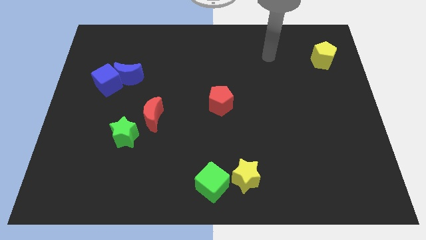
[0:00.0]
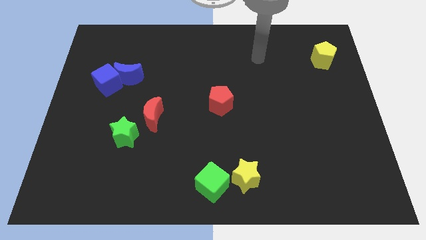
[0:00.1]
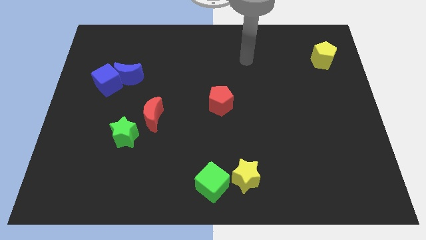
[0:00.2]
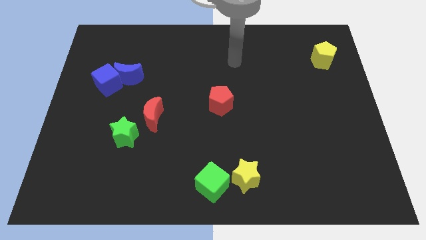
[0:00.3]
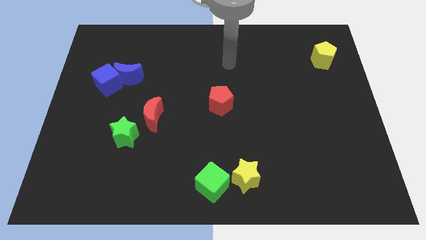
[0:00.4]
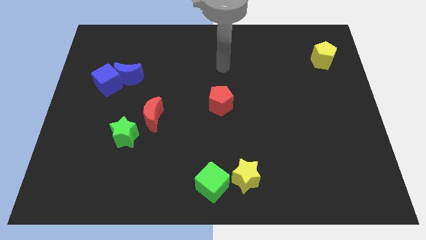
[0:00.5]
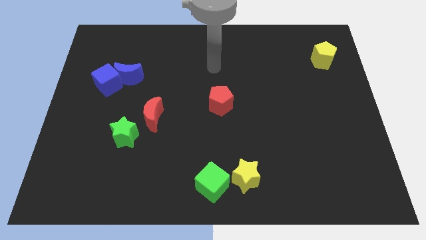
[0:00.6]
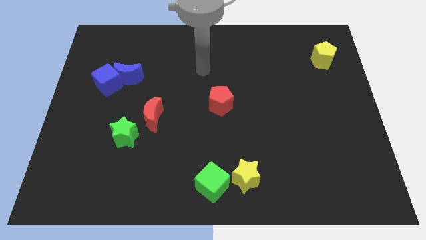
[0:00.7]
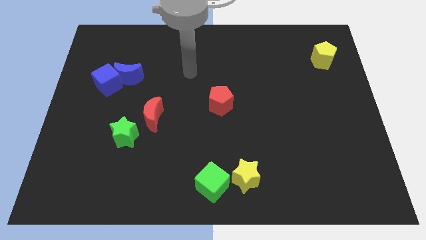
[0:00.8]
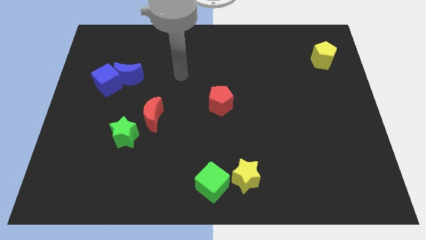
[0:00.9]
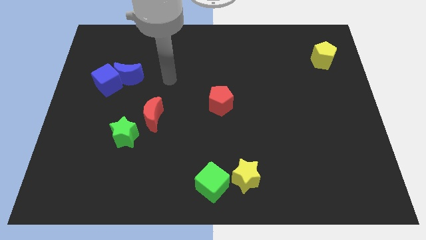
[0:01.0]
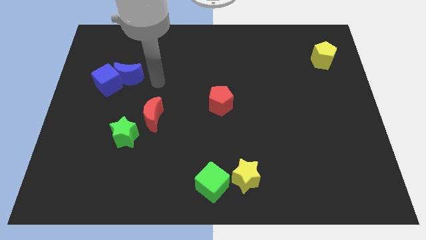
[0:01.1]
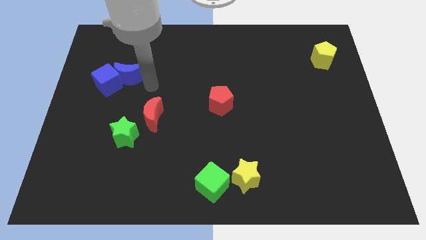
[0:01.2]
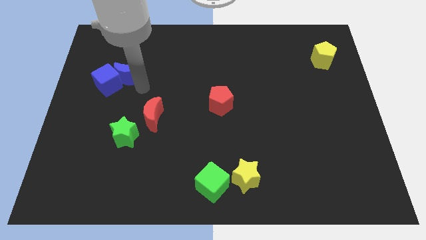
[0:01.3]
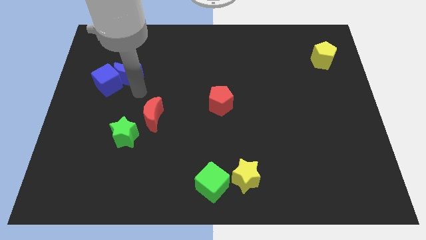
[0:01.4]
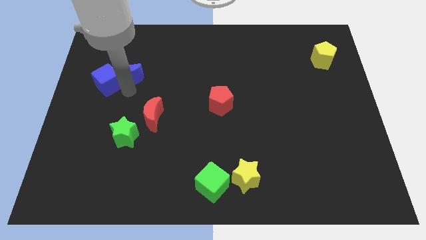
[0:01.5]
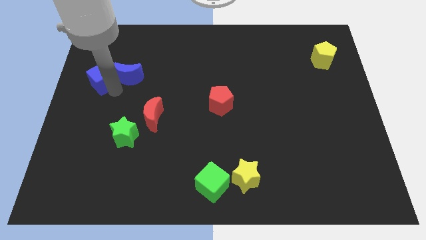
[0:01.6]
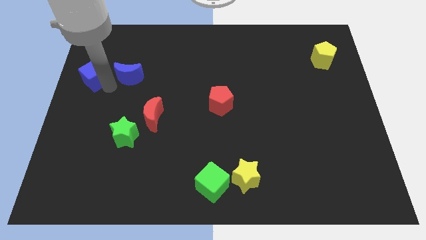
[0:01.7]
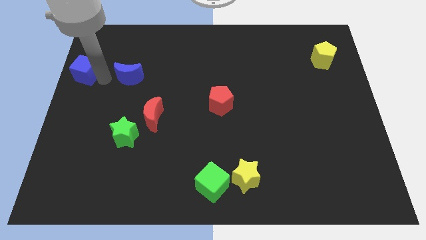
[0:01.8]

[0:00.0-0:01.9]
separate the blue moon from the blue cube

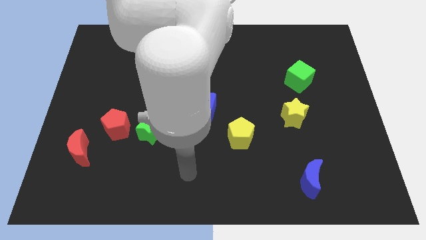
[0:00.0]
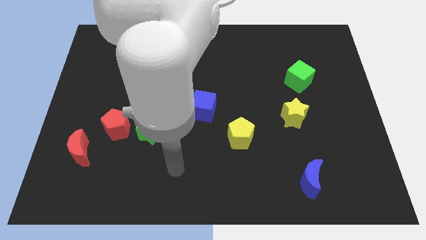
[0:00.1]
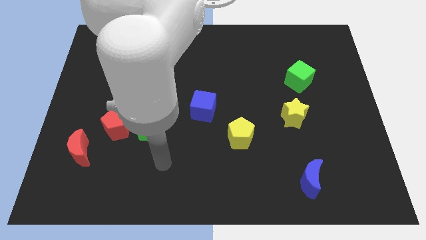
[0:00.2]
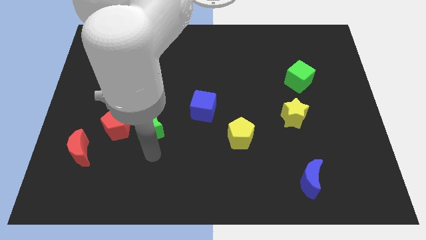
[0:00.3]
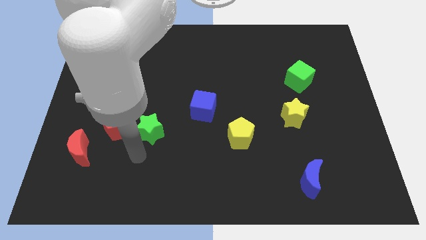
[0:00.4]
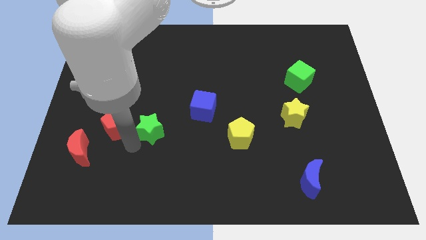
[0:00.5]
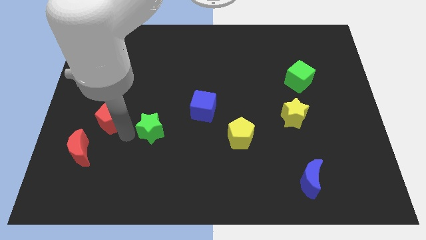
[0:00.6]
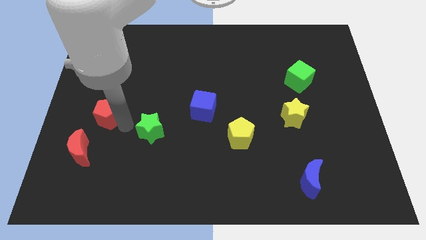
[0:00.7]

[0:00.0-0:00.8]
separate the green star from the red pentagon

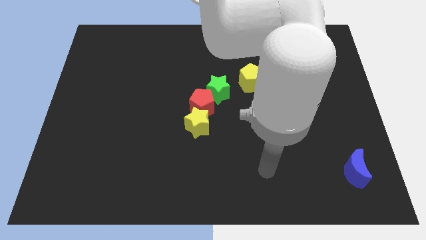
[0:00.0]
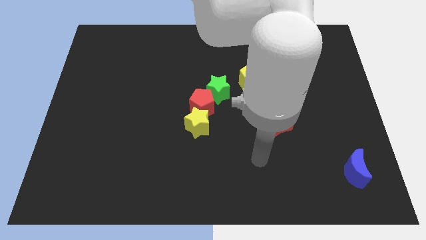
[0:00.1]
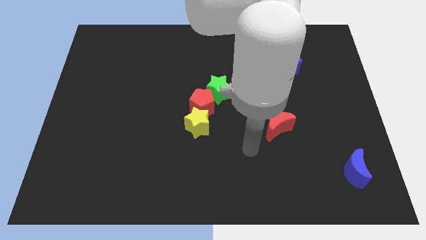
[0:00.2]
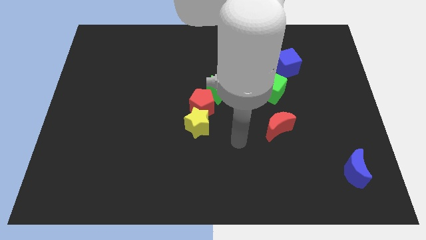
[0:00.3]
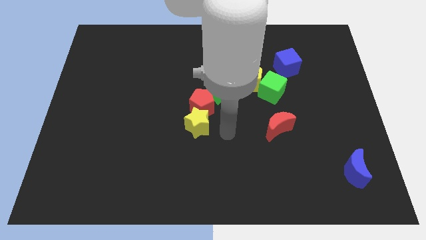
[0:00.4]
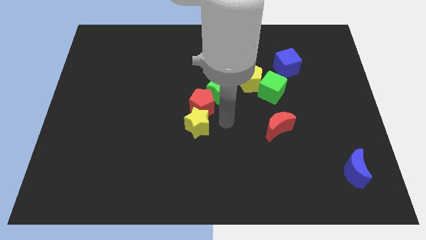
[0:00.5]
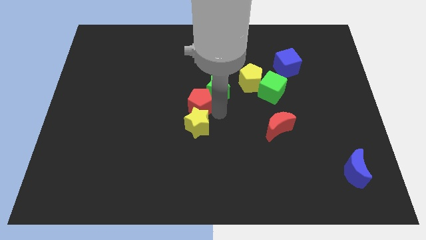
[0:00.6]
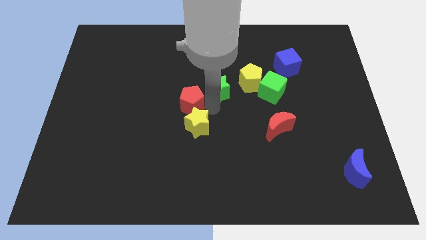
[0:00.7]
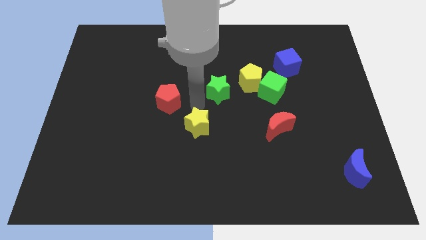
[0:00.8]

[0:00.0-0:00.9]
move the yellow star away from the red pentagon

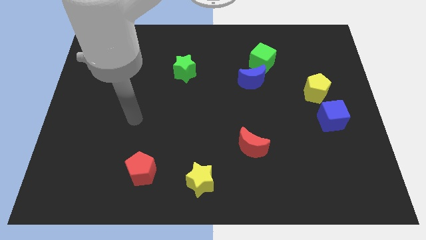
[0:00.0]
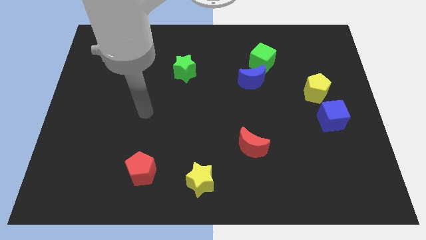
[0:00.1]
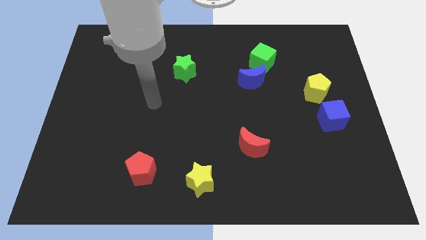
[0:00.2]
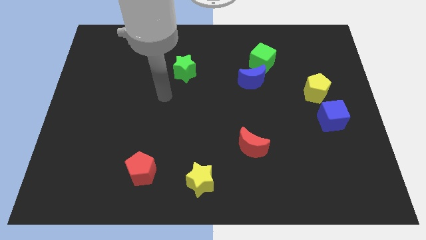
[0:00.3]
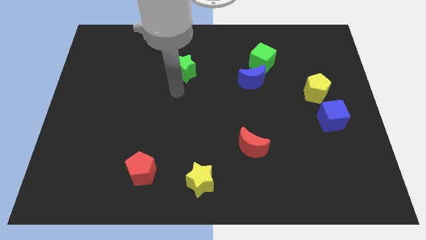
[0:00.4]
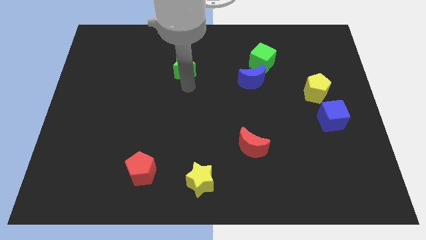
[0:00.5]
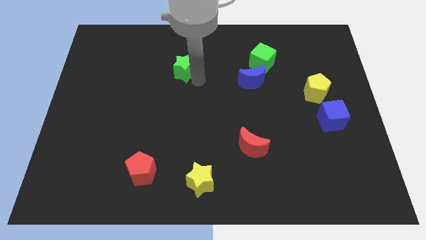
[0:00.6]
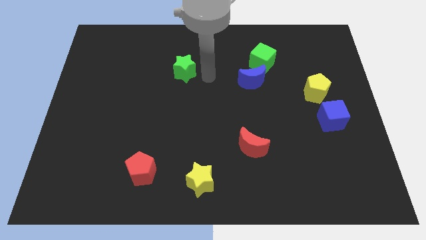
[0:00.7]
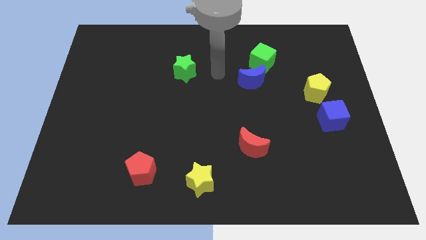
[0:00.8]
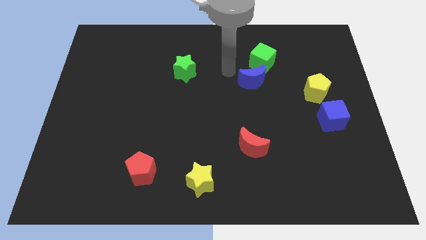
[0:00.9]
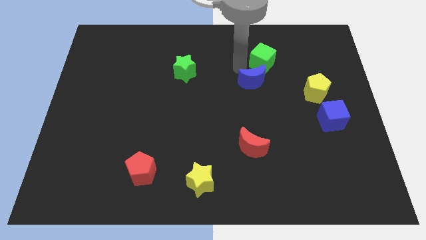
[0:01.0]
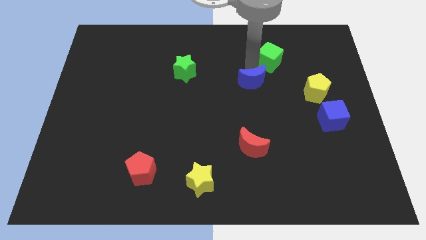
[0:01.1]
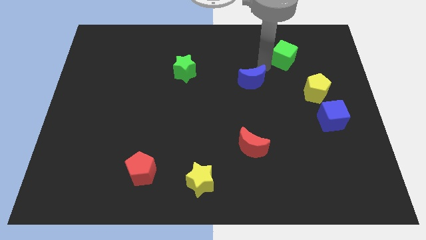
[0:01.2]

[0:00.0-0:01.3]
move the blue moon away from the green cube

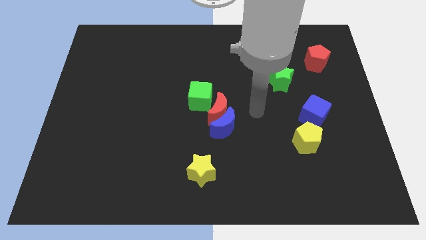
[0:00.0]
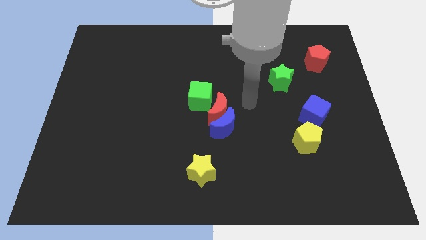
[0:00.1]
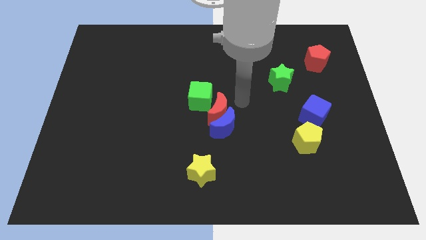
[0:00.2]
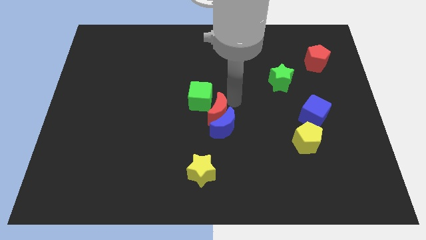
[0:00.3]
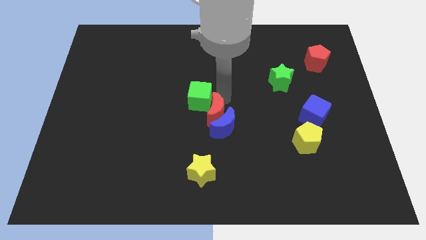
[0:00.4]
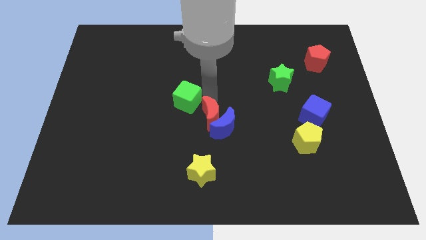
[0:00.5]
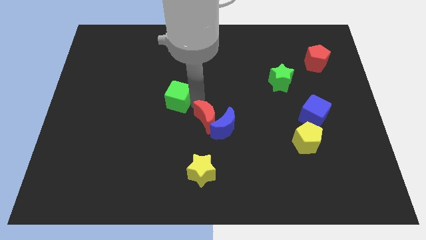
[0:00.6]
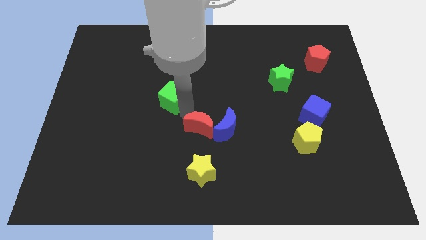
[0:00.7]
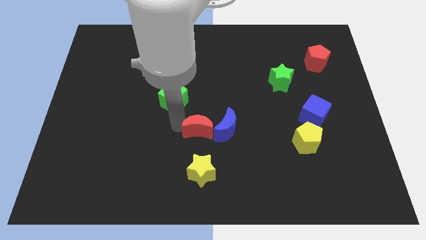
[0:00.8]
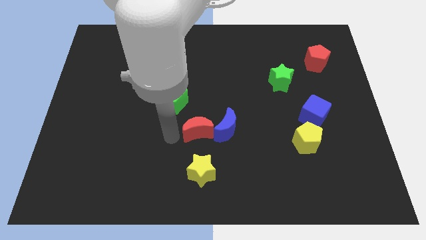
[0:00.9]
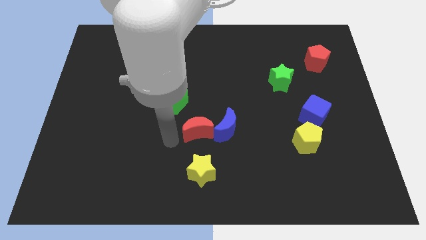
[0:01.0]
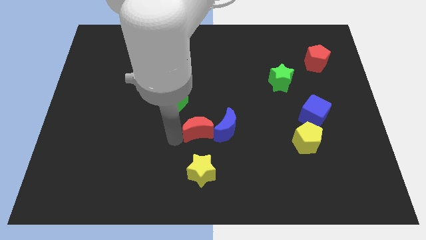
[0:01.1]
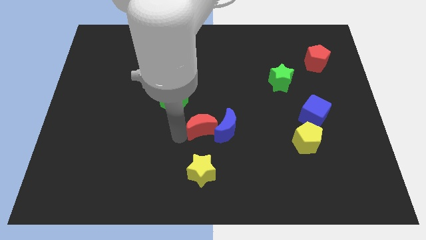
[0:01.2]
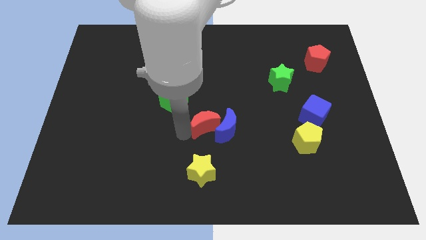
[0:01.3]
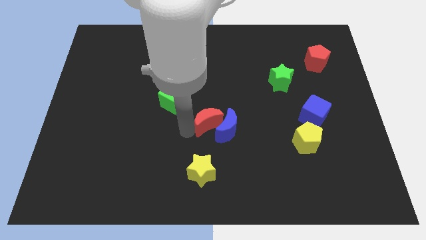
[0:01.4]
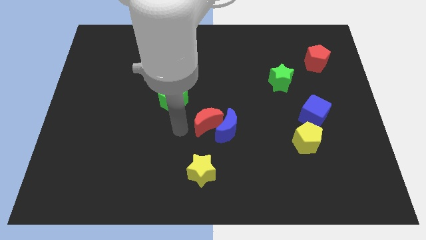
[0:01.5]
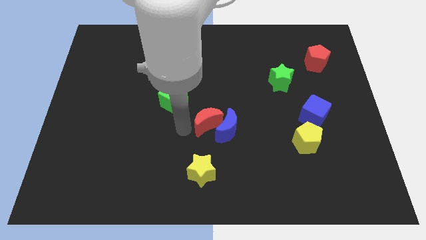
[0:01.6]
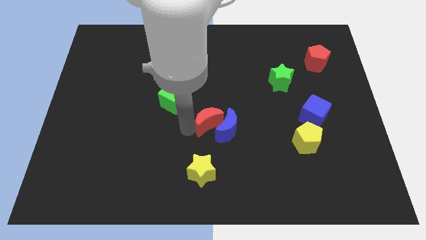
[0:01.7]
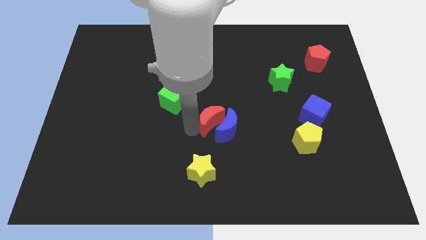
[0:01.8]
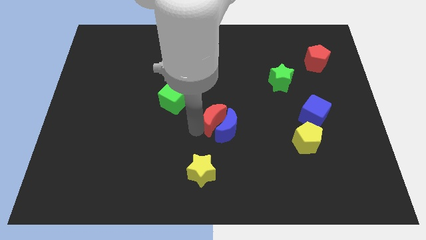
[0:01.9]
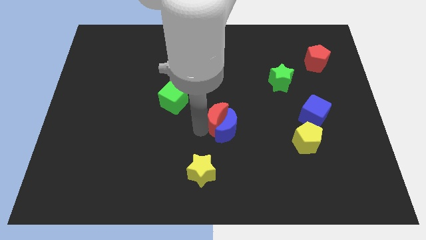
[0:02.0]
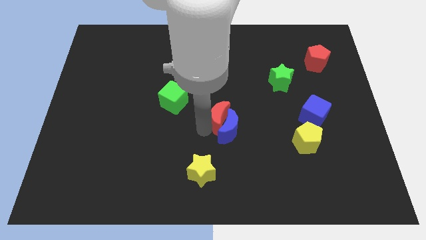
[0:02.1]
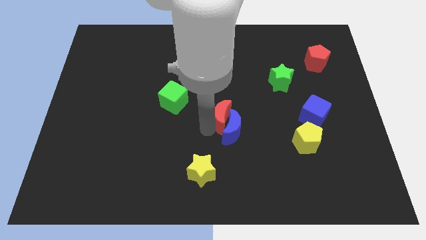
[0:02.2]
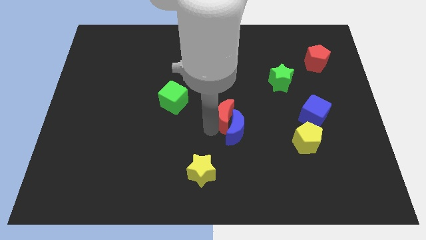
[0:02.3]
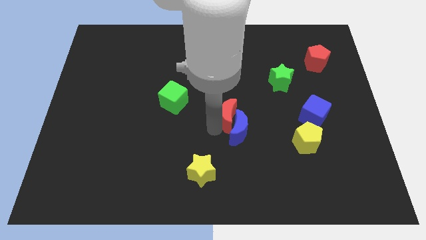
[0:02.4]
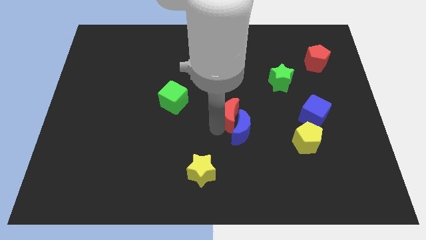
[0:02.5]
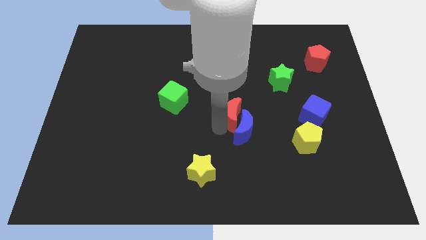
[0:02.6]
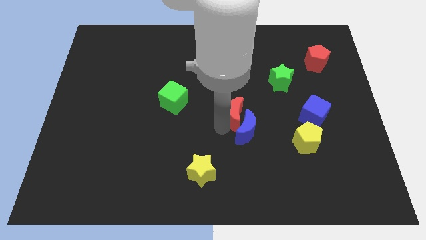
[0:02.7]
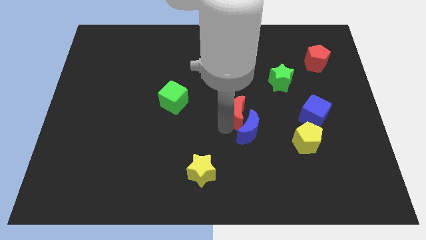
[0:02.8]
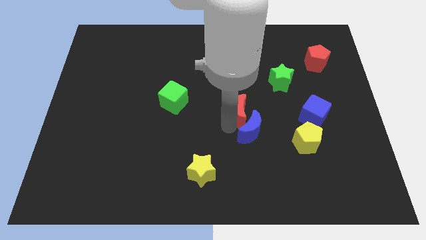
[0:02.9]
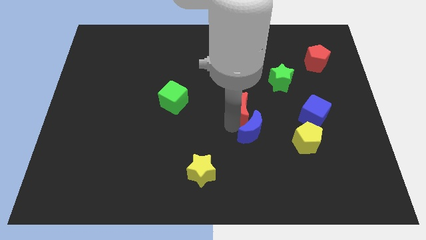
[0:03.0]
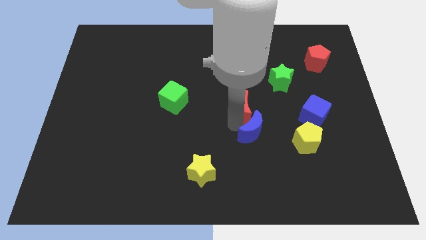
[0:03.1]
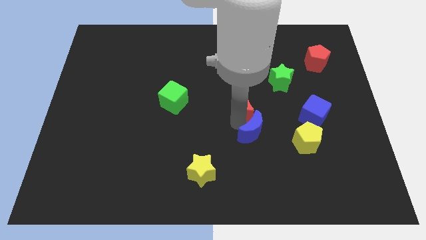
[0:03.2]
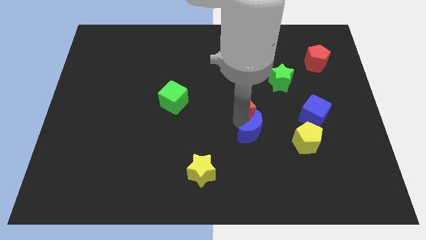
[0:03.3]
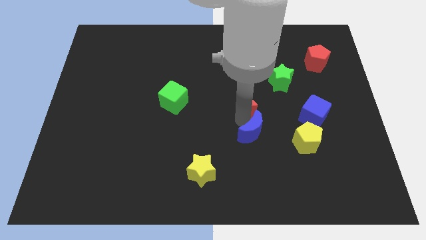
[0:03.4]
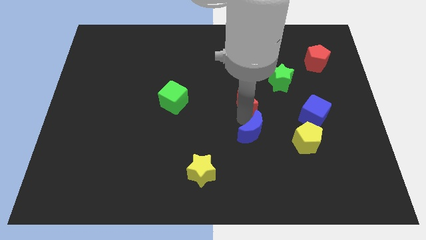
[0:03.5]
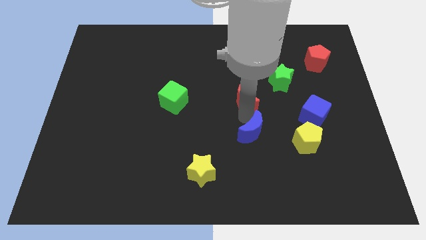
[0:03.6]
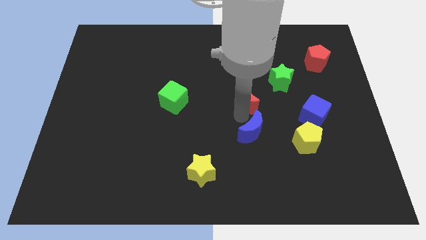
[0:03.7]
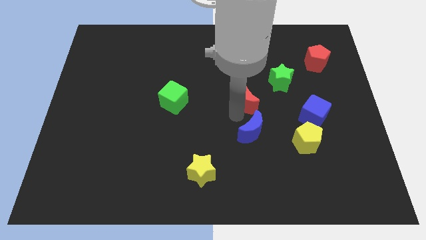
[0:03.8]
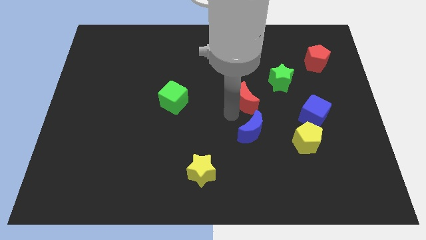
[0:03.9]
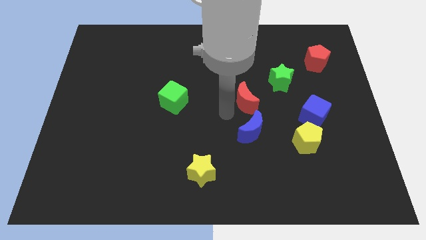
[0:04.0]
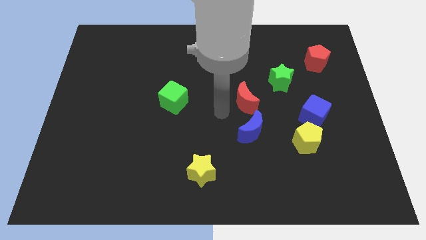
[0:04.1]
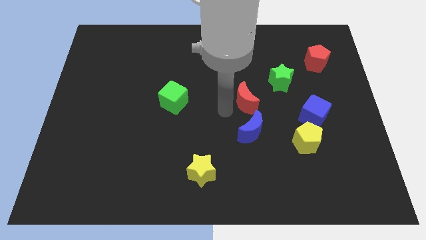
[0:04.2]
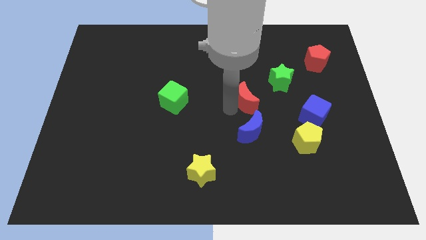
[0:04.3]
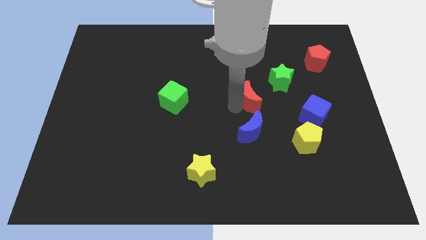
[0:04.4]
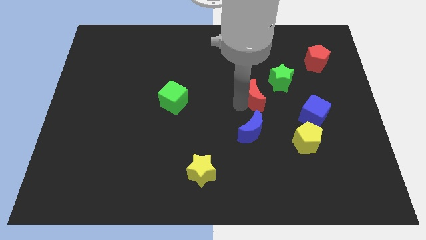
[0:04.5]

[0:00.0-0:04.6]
separate the red moon from the blue moon and green cube
